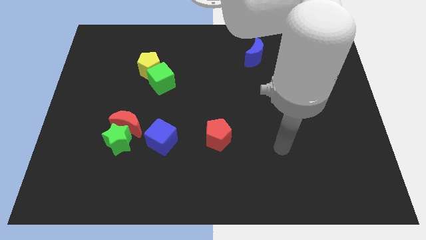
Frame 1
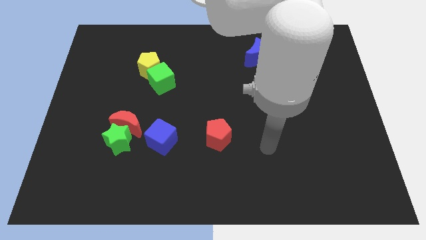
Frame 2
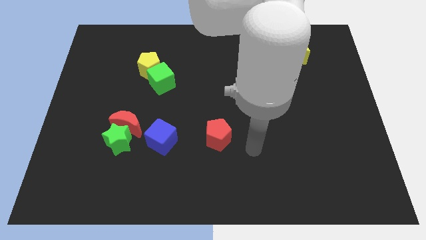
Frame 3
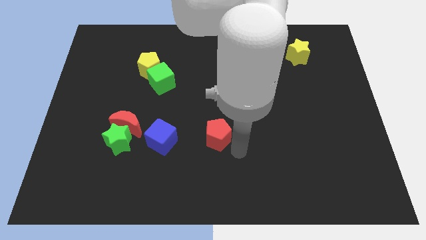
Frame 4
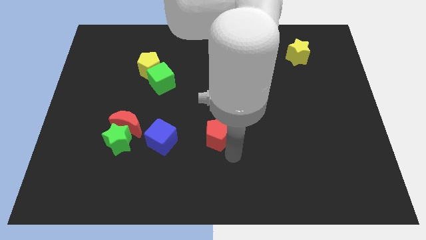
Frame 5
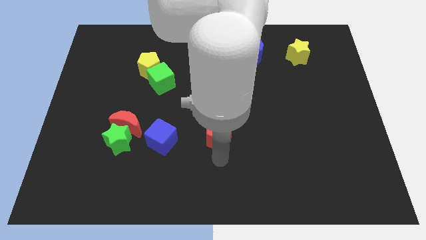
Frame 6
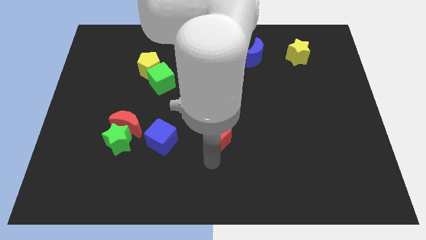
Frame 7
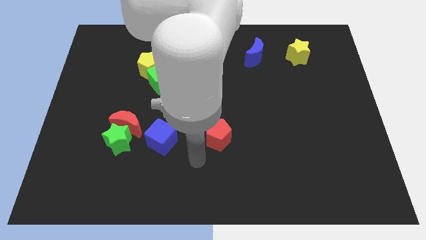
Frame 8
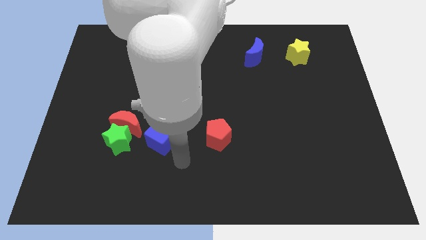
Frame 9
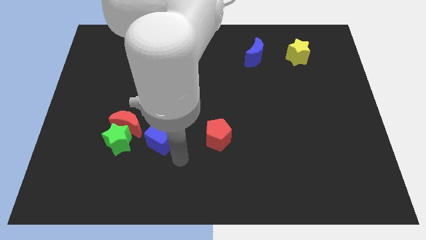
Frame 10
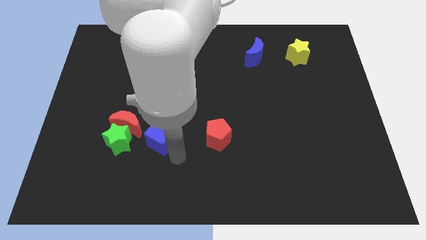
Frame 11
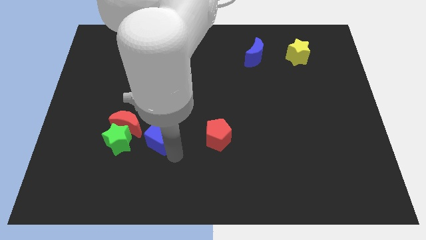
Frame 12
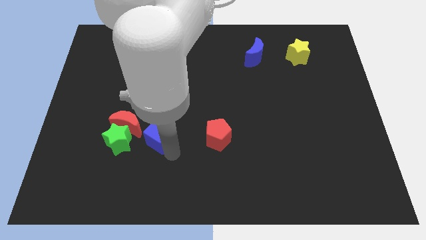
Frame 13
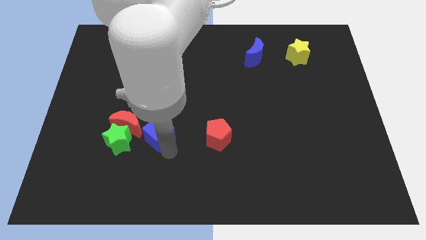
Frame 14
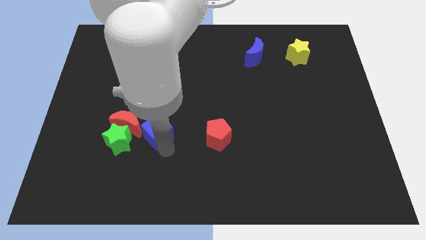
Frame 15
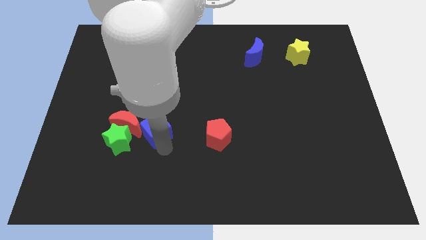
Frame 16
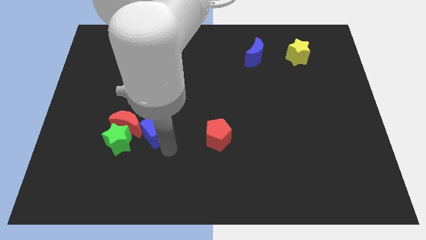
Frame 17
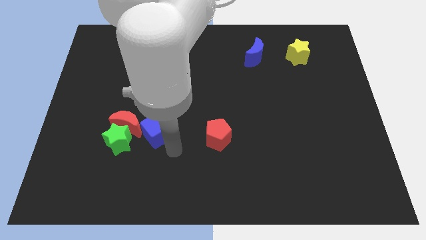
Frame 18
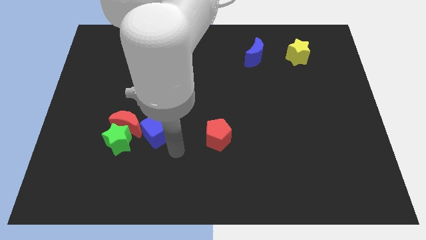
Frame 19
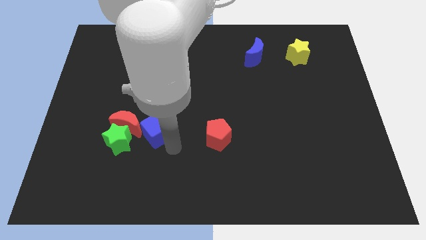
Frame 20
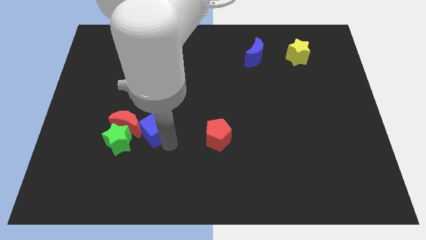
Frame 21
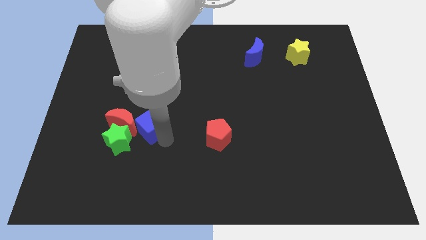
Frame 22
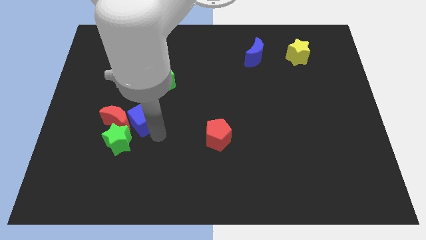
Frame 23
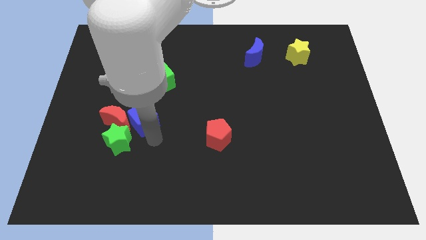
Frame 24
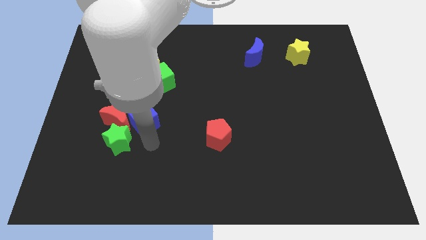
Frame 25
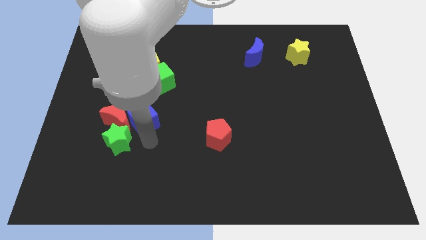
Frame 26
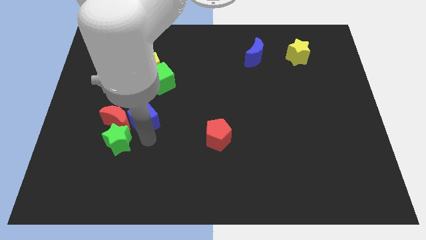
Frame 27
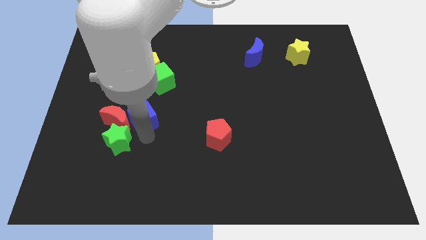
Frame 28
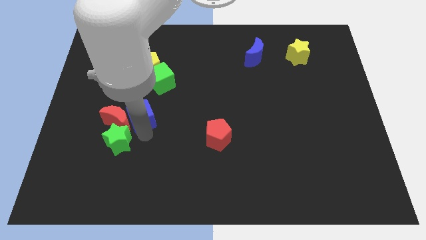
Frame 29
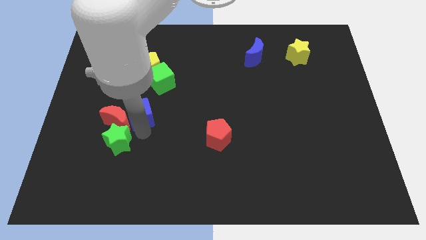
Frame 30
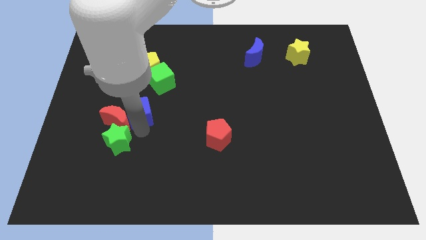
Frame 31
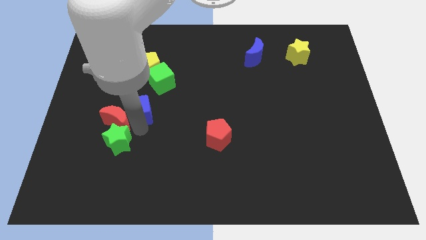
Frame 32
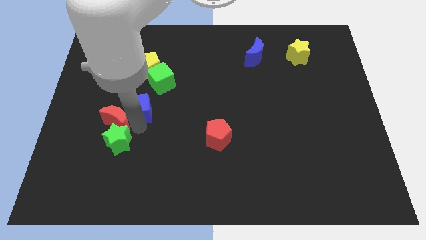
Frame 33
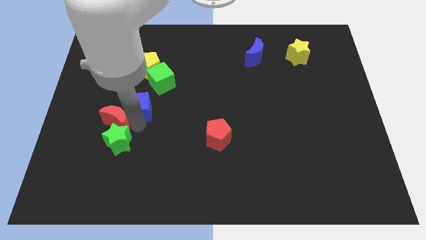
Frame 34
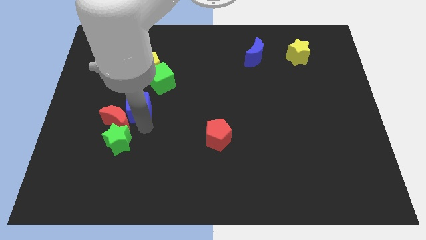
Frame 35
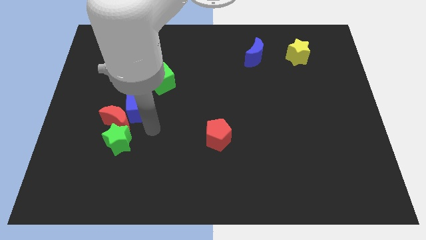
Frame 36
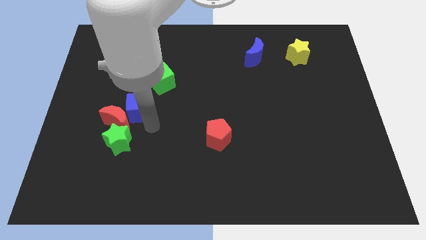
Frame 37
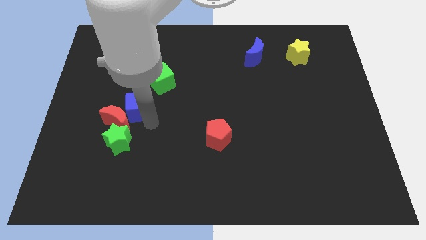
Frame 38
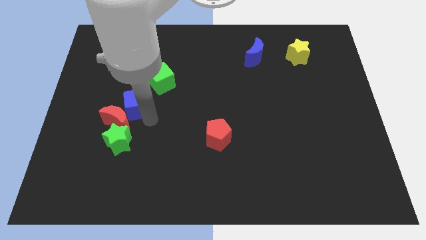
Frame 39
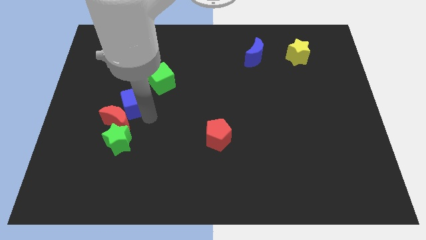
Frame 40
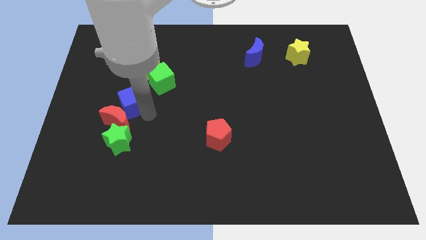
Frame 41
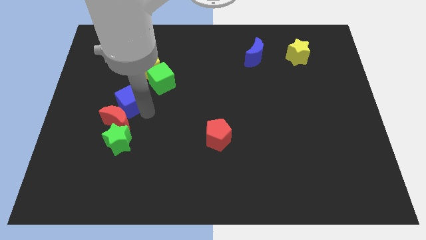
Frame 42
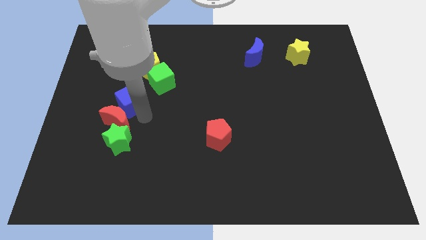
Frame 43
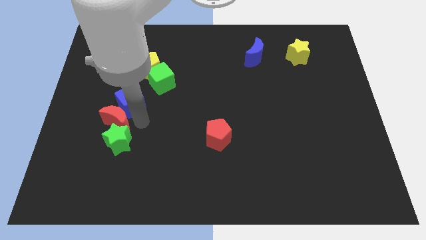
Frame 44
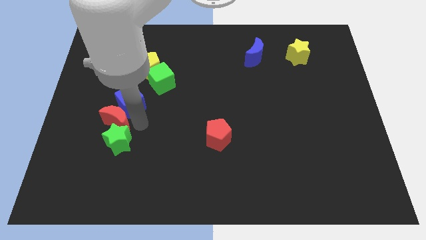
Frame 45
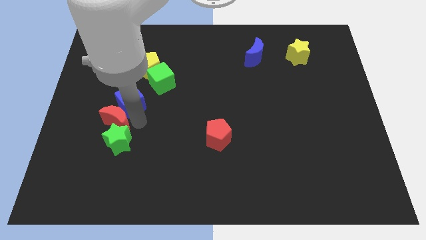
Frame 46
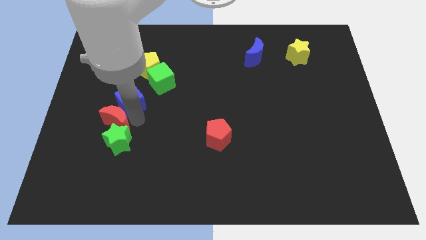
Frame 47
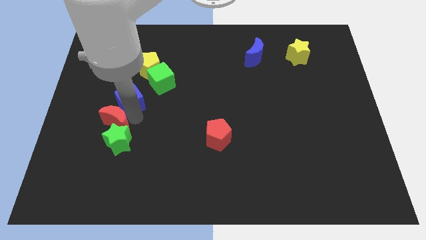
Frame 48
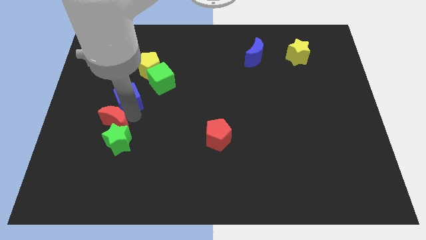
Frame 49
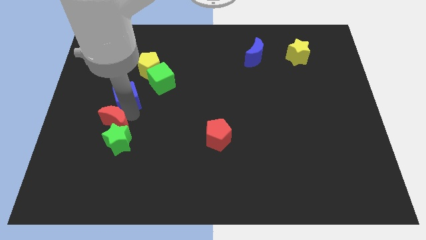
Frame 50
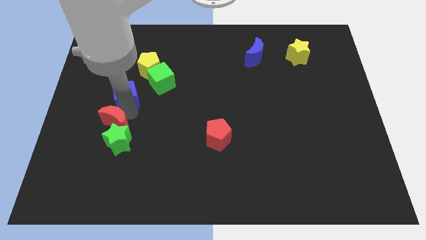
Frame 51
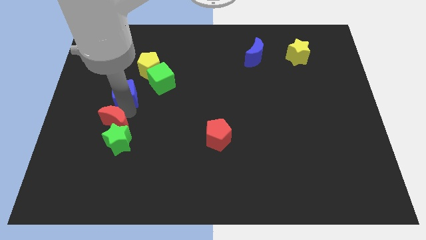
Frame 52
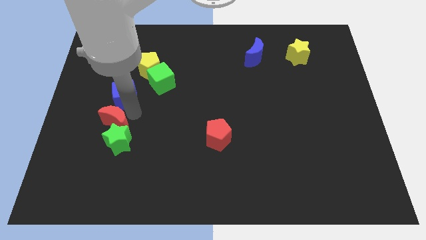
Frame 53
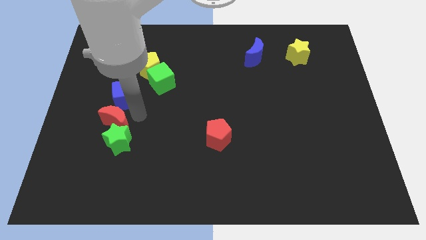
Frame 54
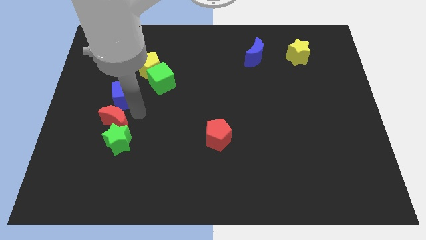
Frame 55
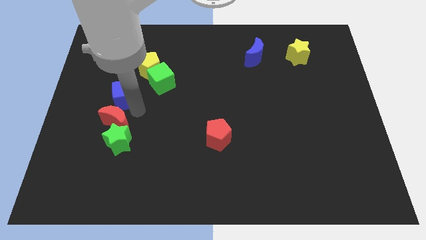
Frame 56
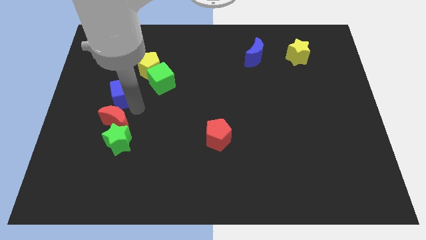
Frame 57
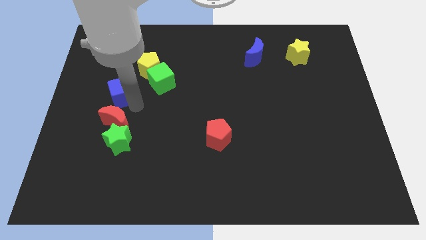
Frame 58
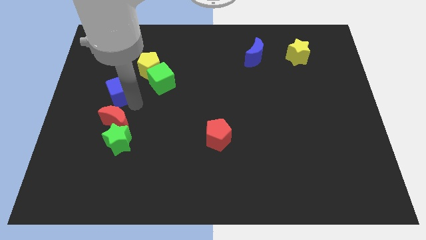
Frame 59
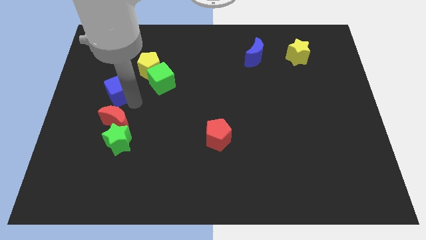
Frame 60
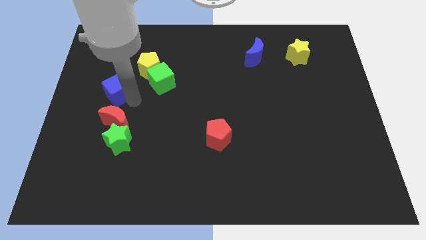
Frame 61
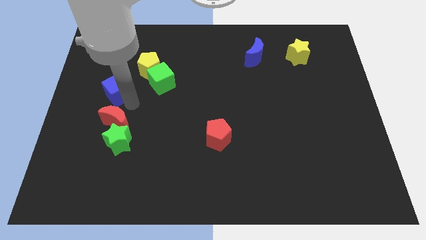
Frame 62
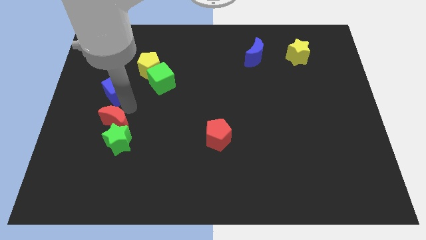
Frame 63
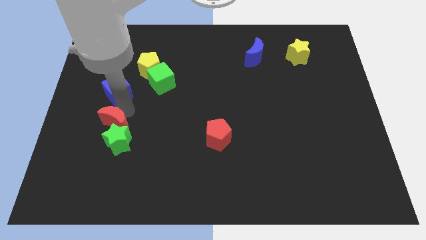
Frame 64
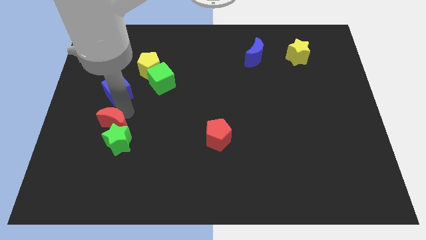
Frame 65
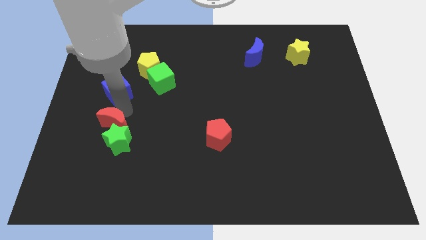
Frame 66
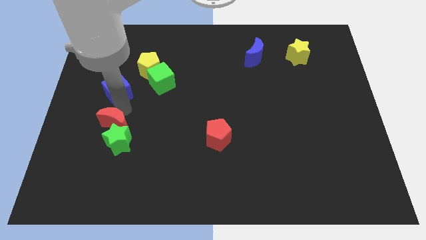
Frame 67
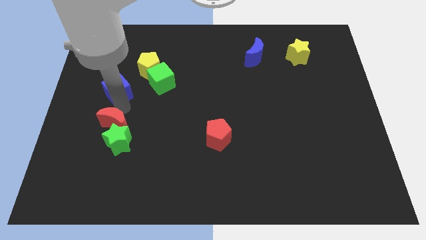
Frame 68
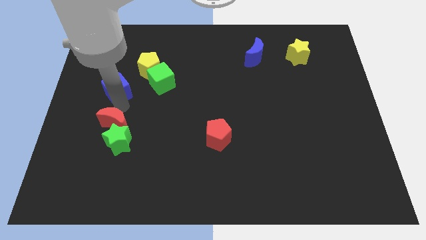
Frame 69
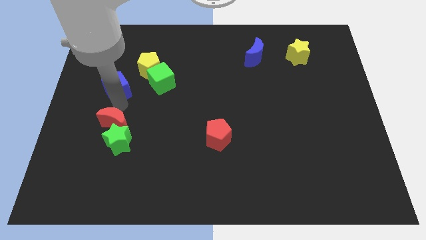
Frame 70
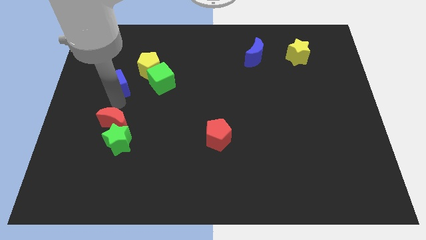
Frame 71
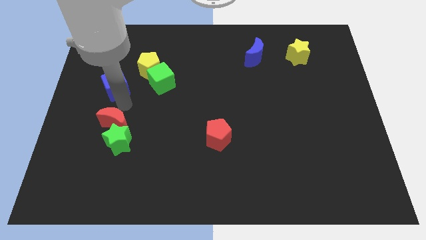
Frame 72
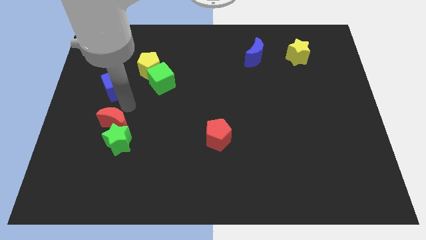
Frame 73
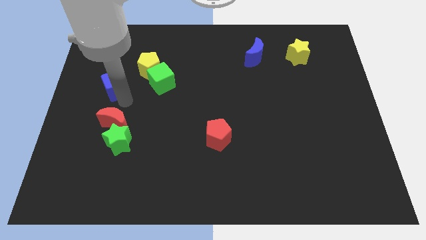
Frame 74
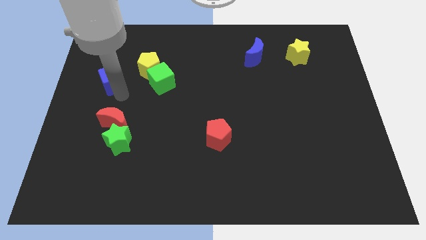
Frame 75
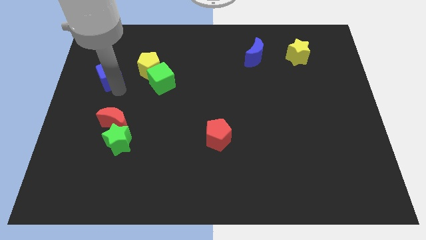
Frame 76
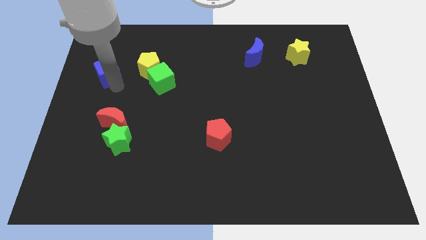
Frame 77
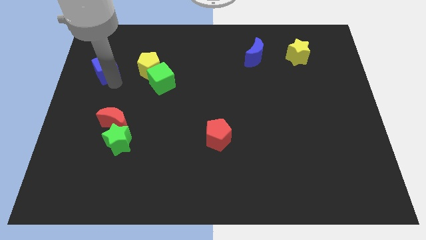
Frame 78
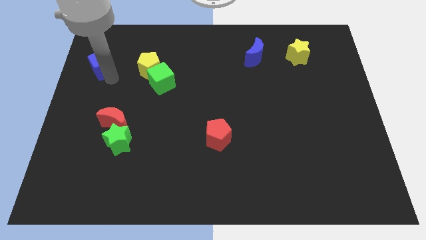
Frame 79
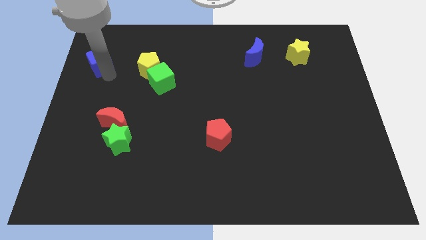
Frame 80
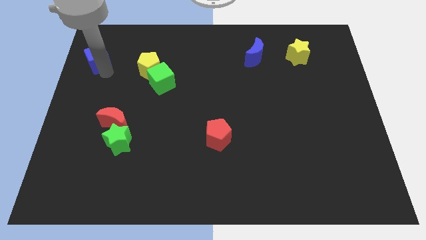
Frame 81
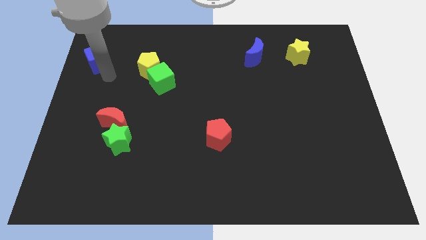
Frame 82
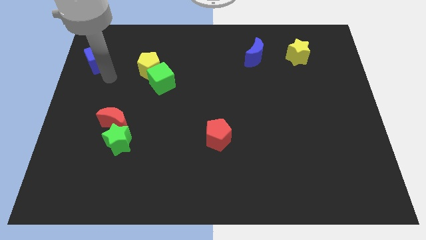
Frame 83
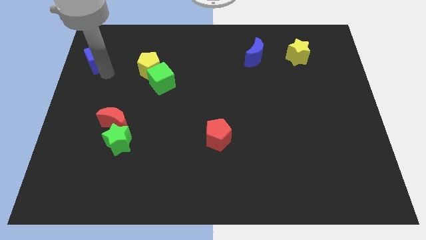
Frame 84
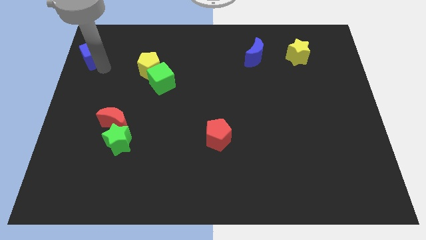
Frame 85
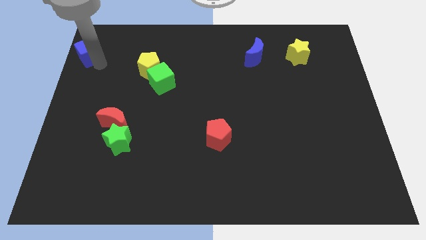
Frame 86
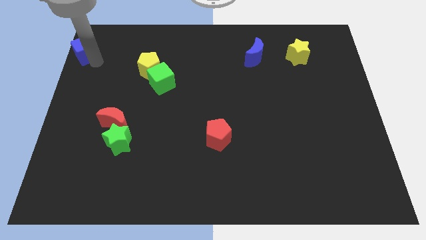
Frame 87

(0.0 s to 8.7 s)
push the blue cube to the top left of the board
